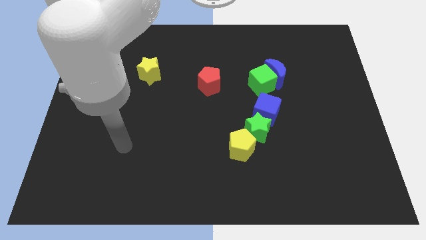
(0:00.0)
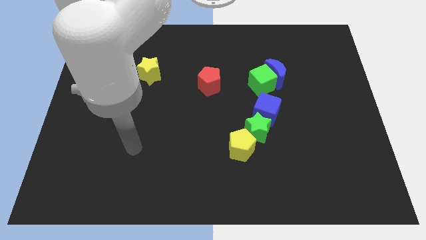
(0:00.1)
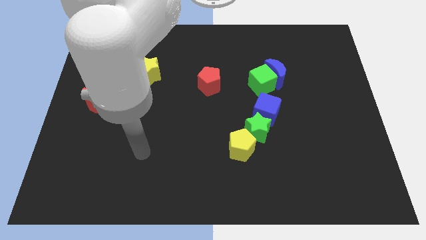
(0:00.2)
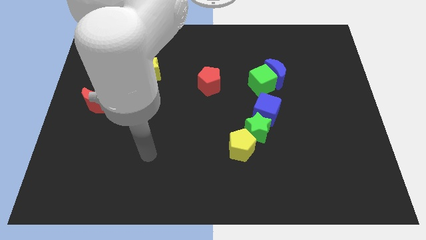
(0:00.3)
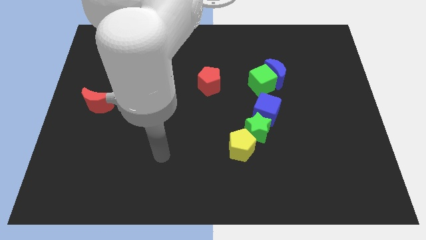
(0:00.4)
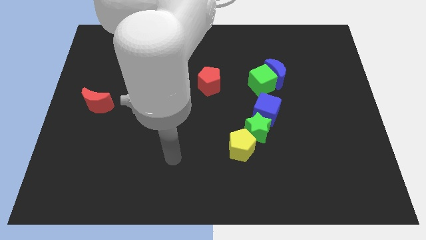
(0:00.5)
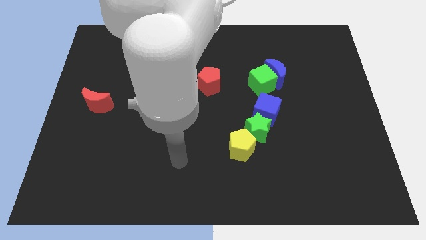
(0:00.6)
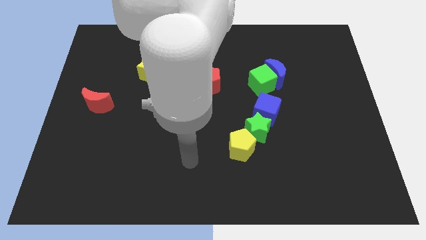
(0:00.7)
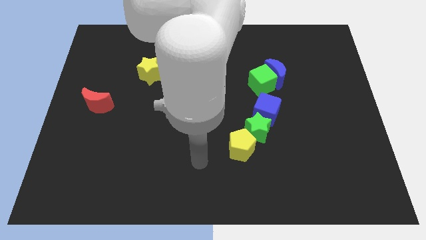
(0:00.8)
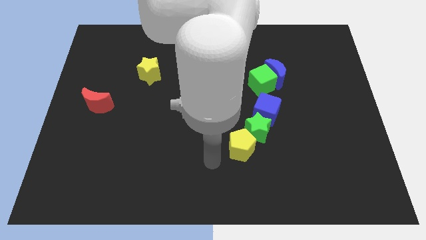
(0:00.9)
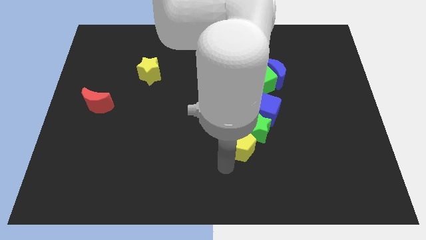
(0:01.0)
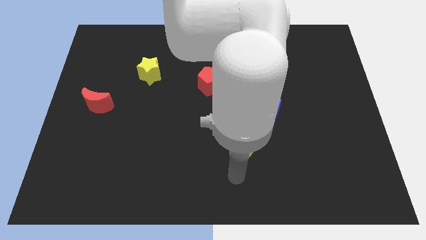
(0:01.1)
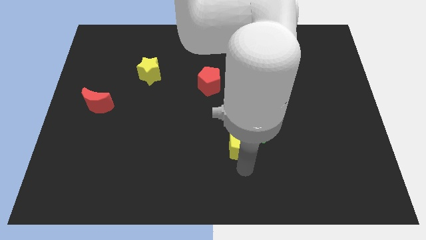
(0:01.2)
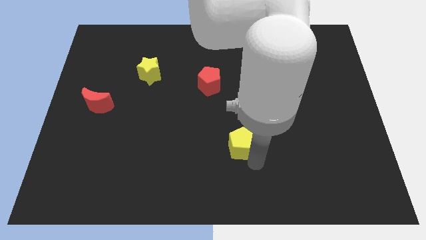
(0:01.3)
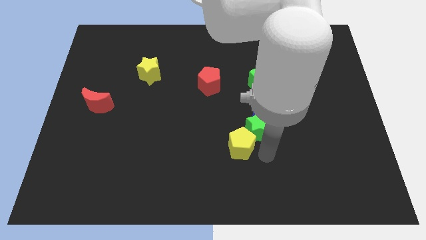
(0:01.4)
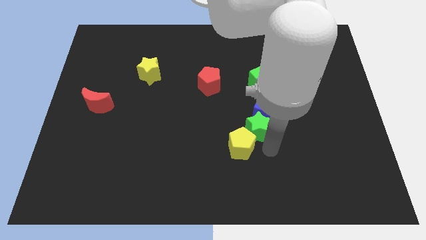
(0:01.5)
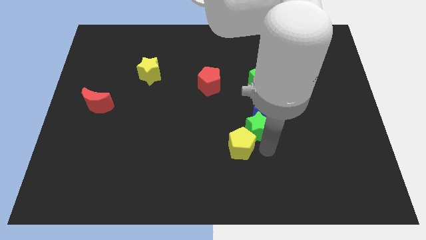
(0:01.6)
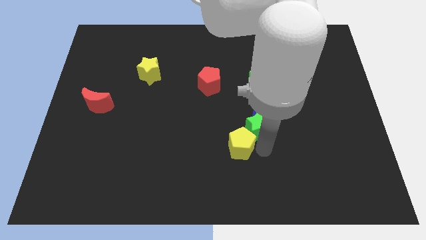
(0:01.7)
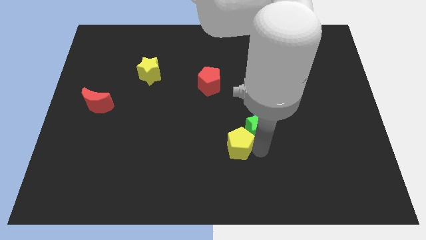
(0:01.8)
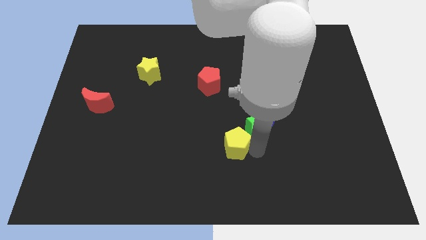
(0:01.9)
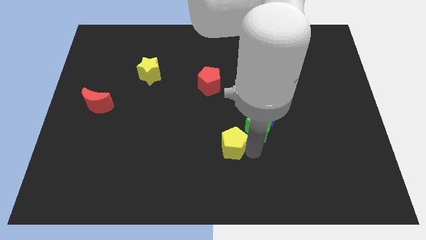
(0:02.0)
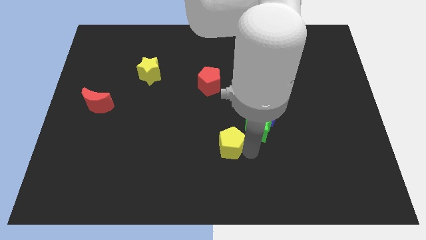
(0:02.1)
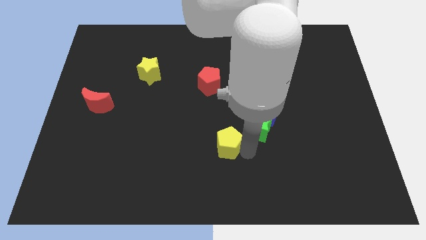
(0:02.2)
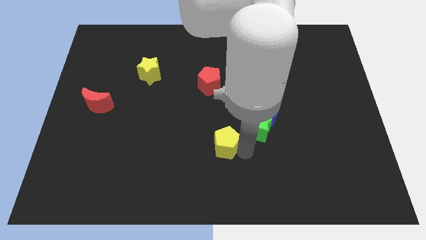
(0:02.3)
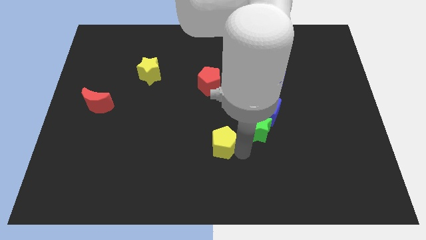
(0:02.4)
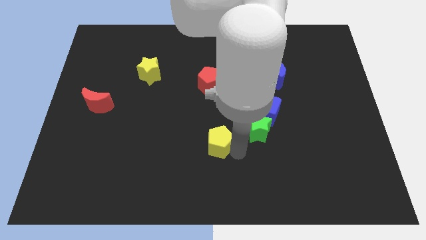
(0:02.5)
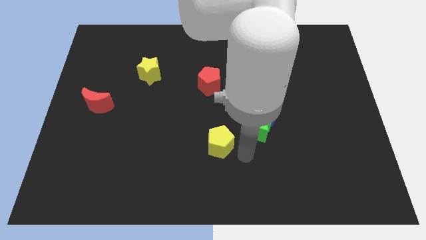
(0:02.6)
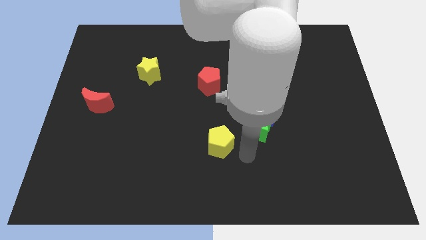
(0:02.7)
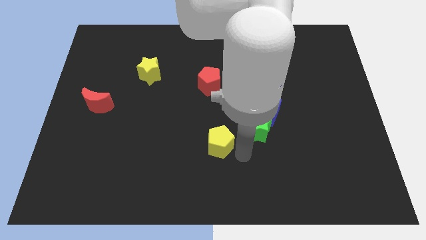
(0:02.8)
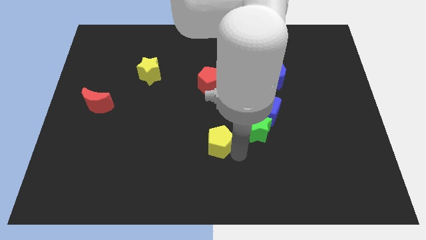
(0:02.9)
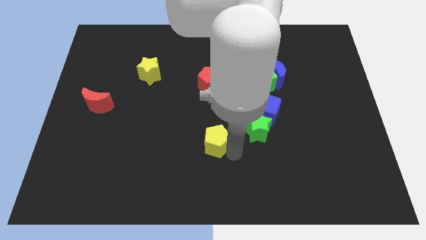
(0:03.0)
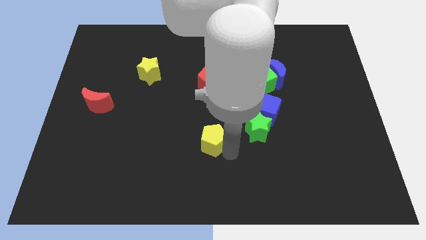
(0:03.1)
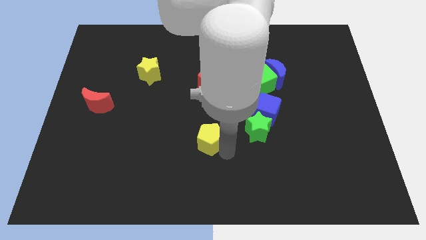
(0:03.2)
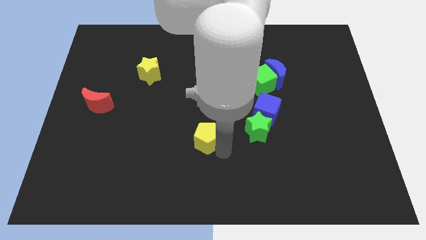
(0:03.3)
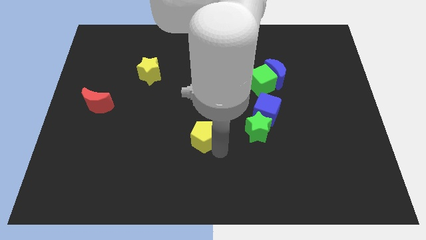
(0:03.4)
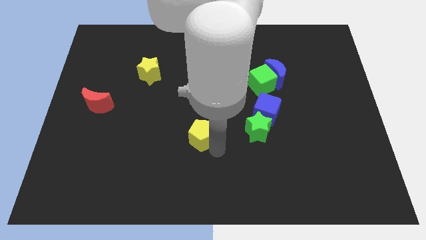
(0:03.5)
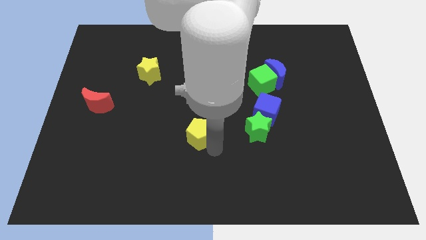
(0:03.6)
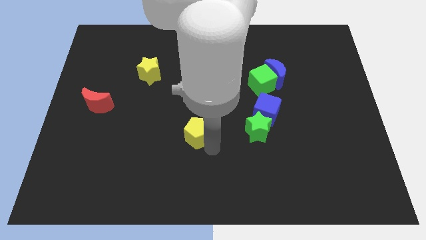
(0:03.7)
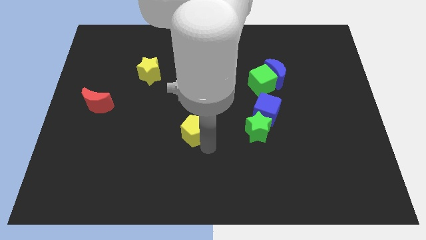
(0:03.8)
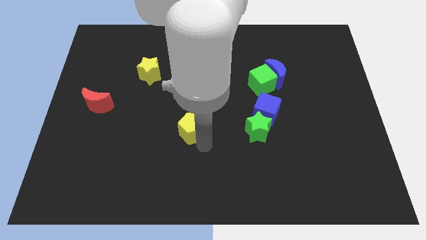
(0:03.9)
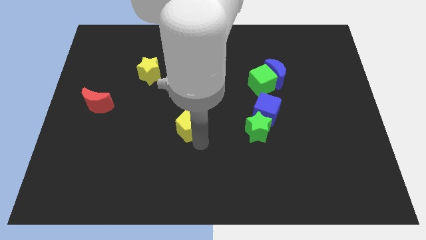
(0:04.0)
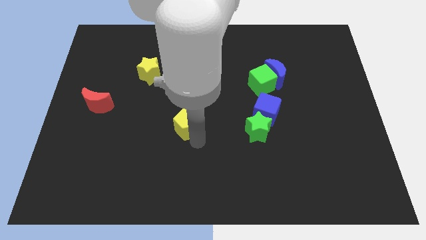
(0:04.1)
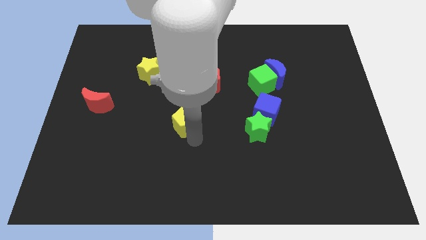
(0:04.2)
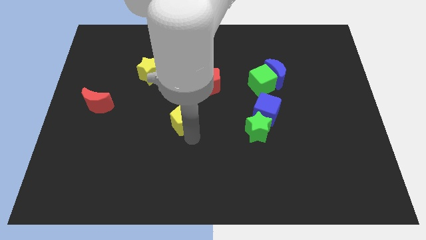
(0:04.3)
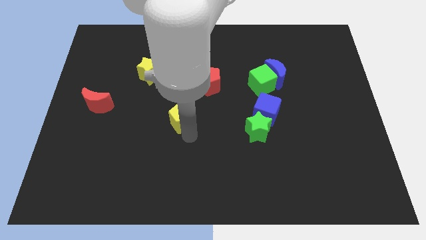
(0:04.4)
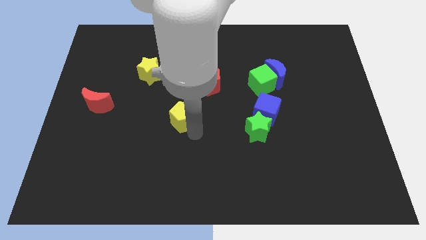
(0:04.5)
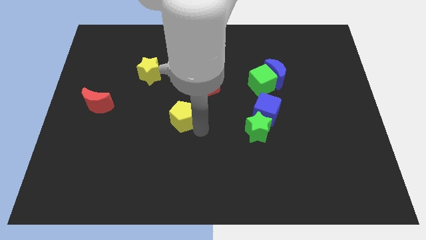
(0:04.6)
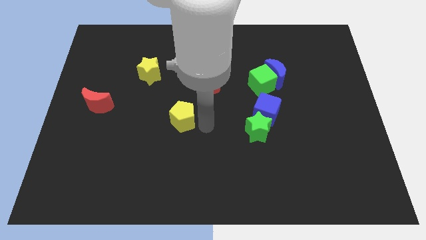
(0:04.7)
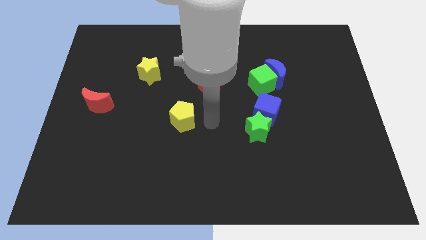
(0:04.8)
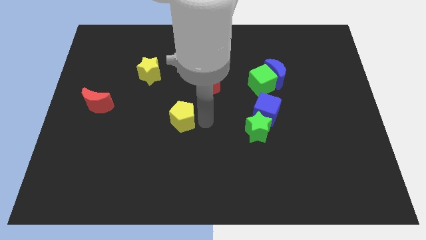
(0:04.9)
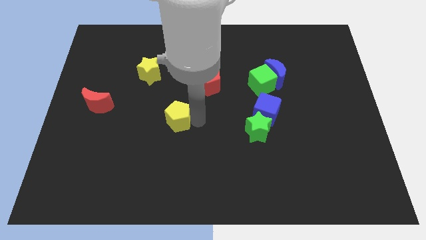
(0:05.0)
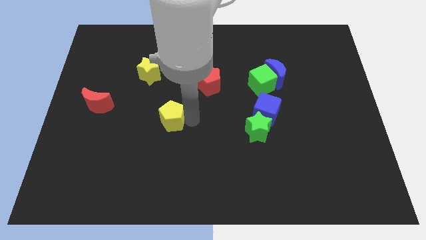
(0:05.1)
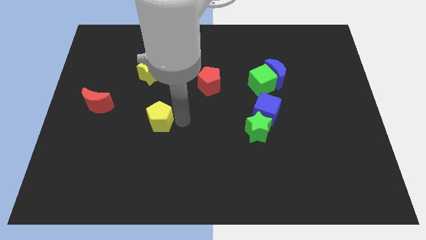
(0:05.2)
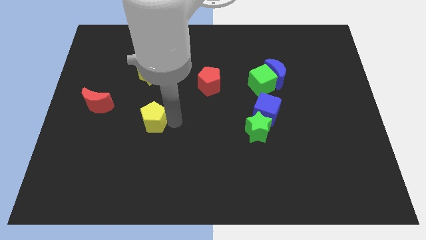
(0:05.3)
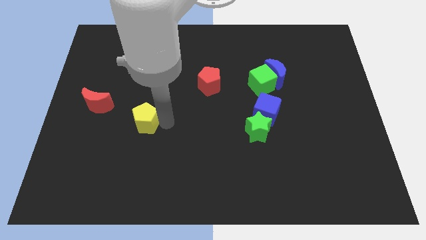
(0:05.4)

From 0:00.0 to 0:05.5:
put the yellow pentagon just right of the red moon
